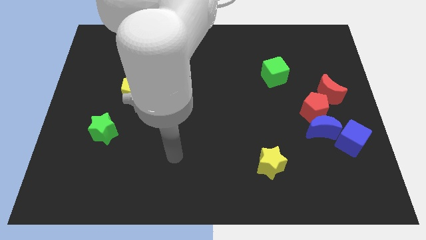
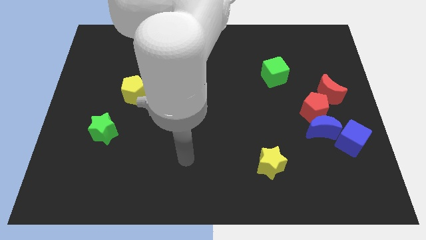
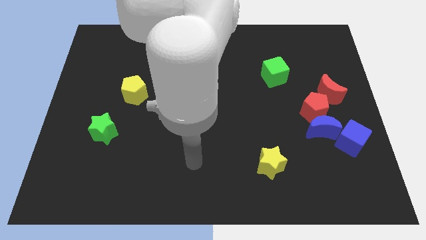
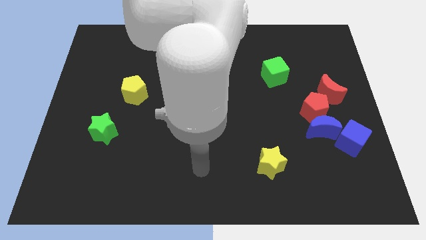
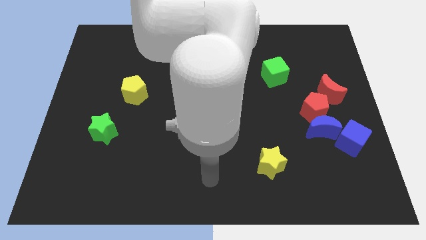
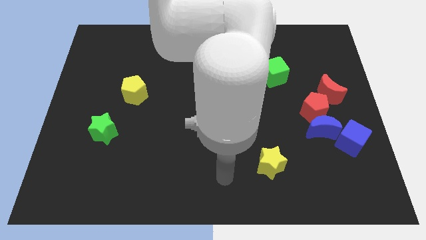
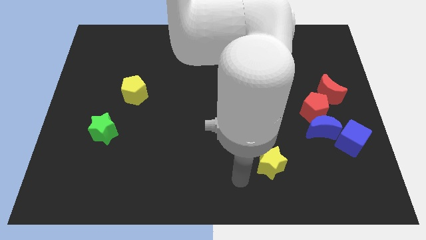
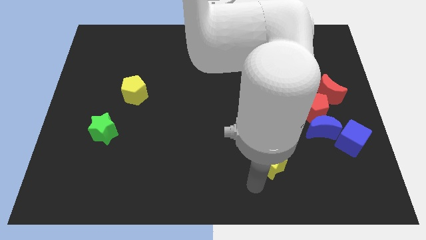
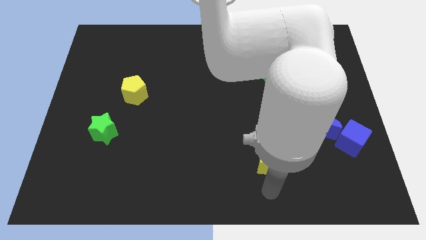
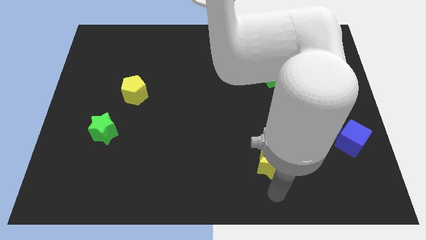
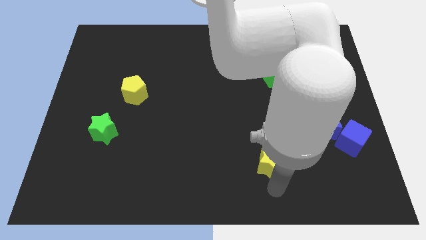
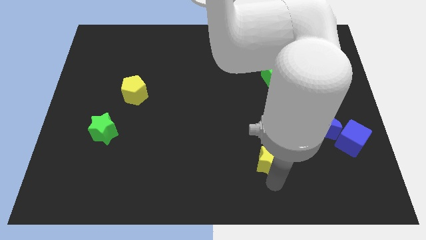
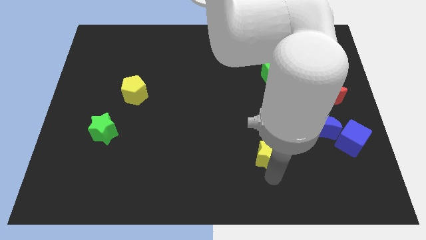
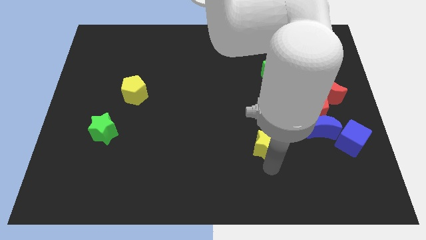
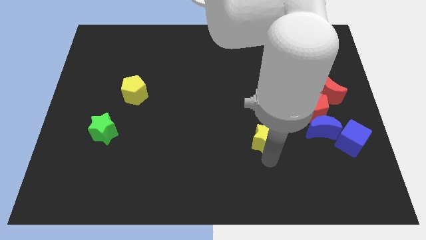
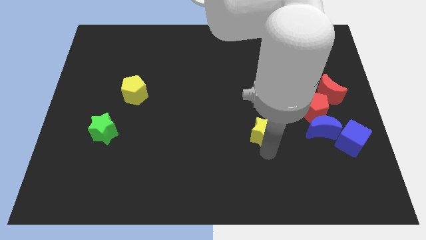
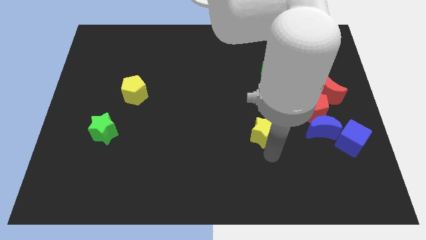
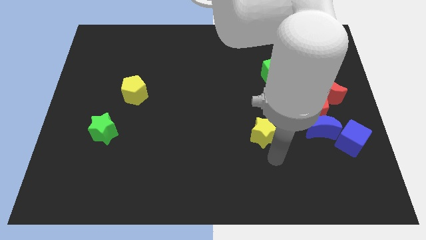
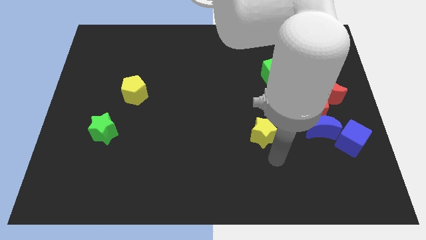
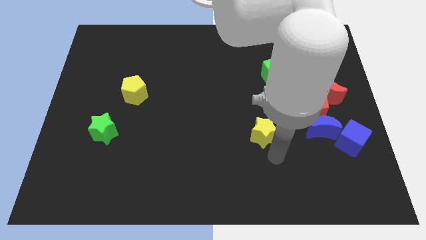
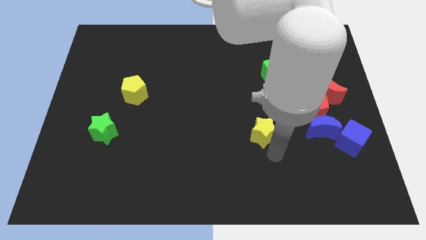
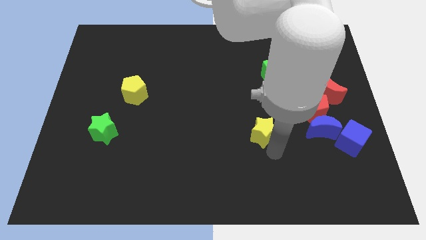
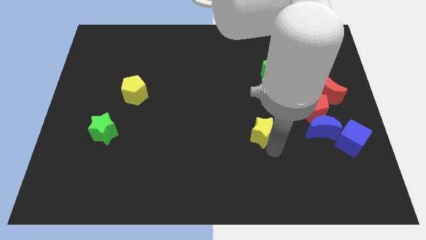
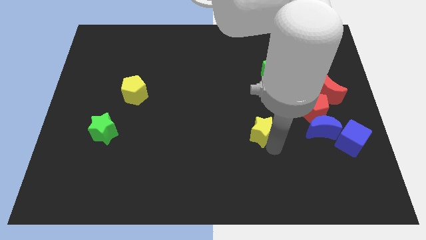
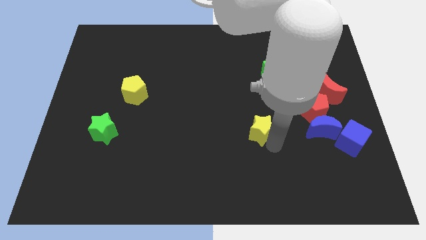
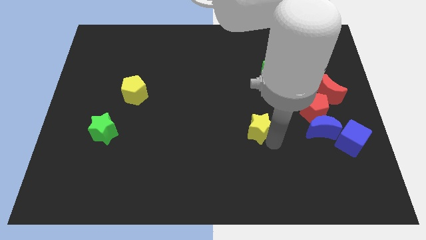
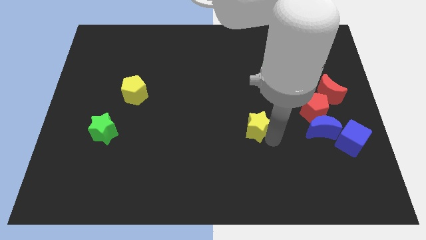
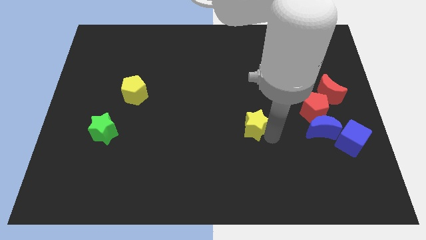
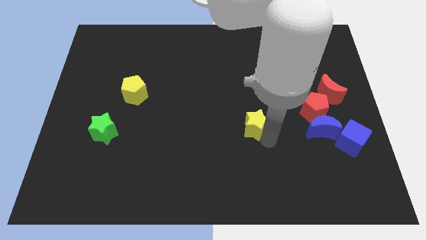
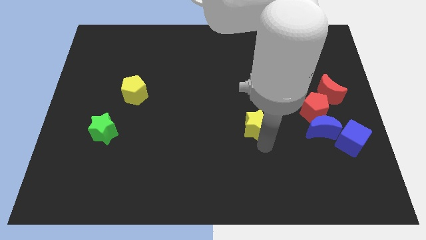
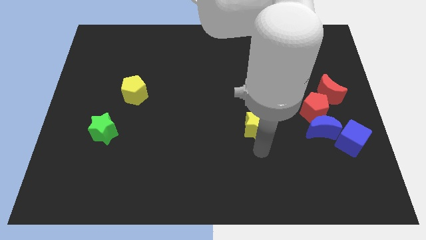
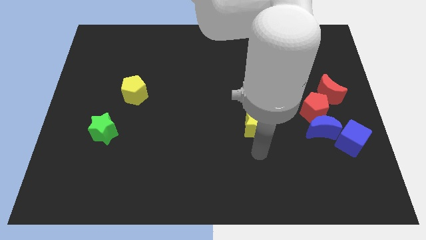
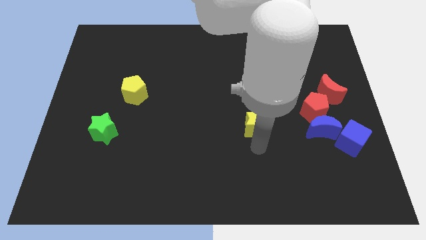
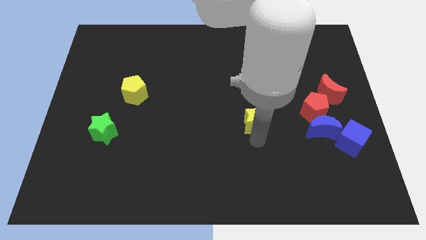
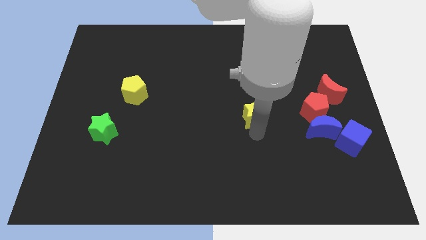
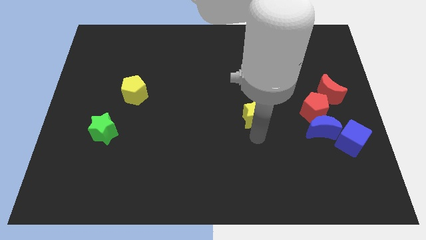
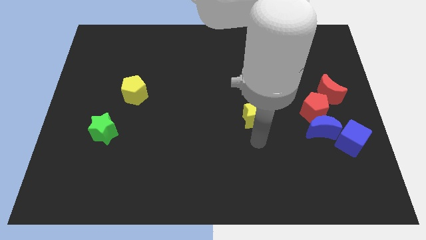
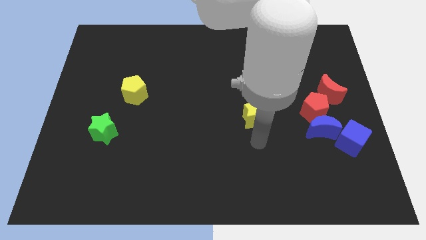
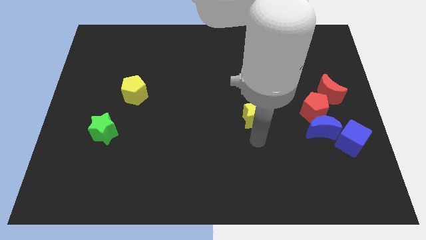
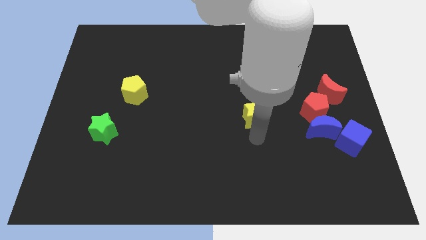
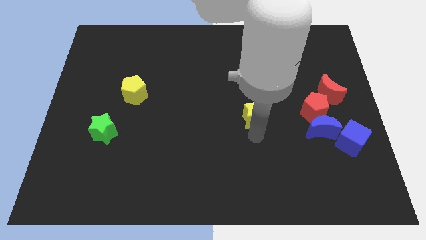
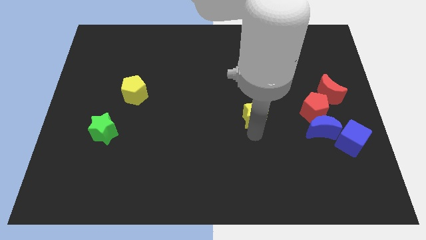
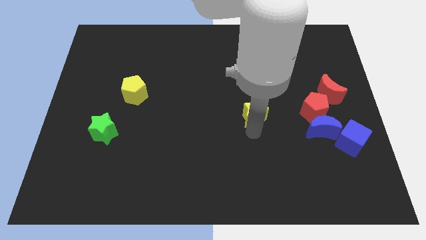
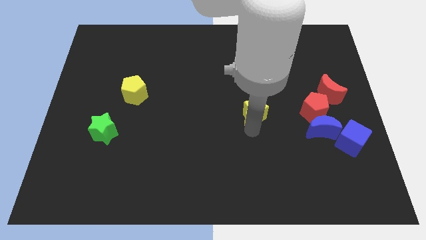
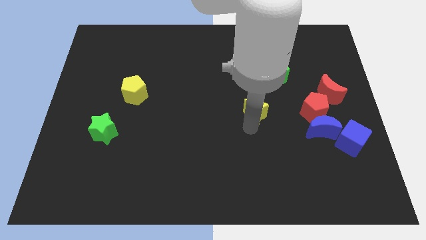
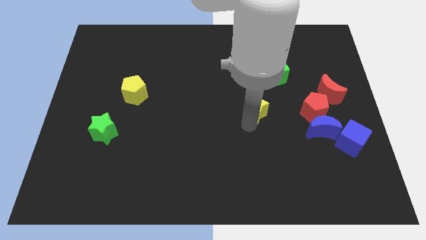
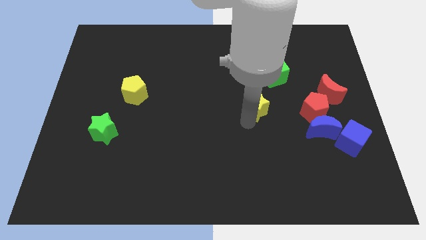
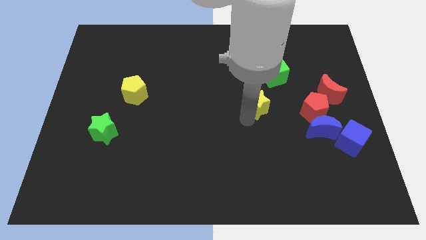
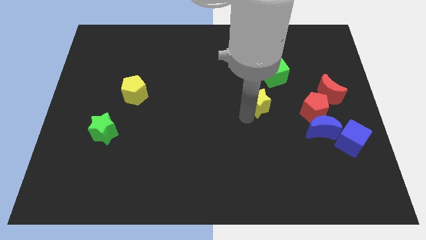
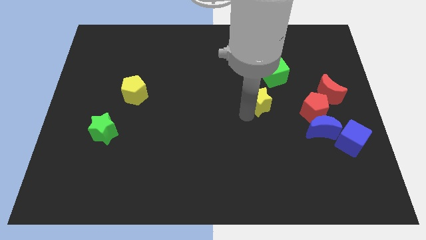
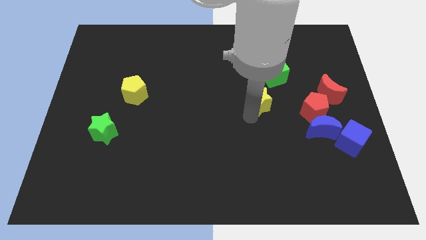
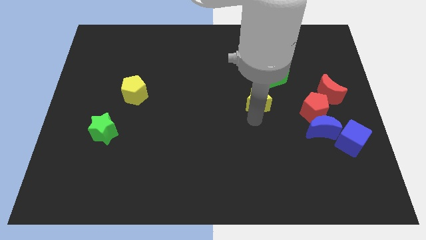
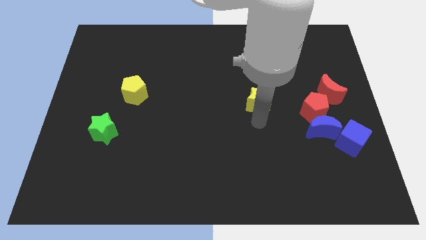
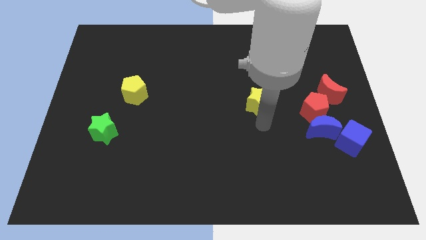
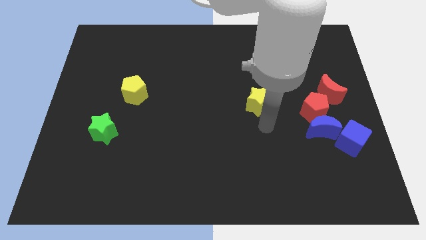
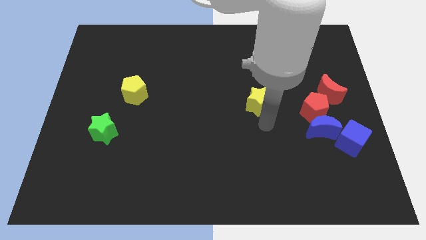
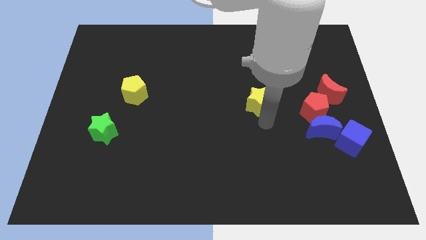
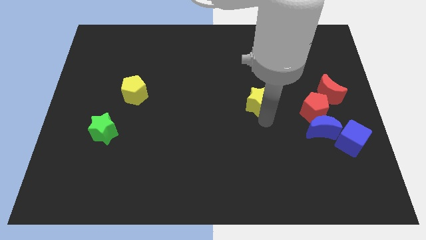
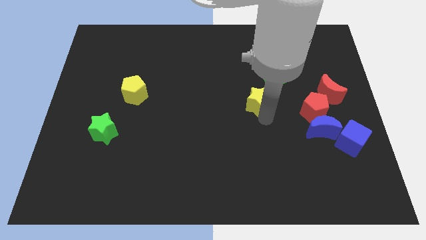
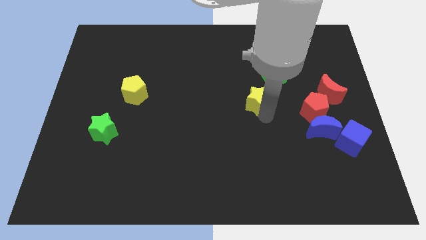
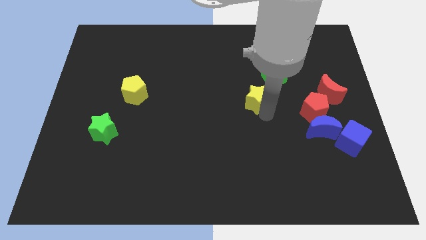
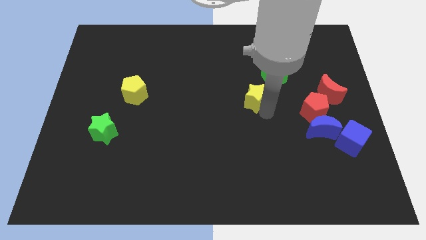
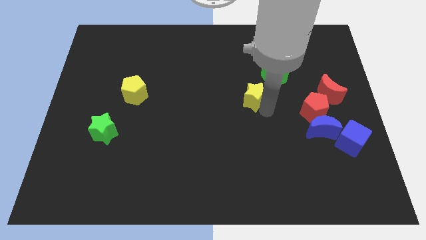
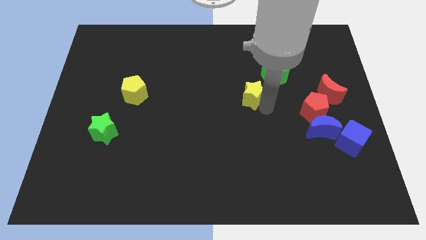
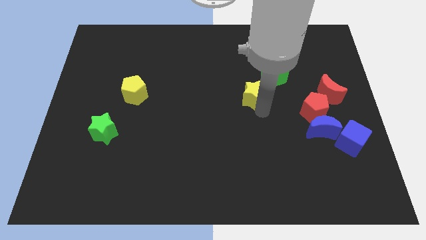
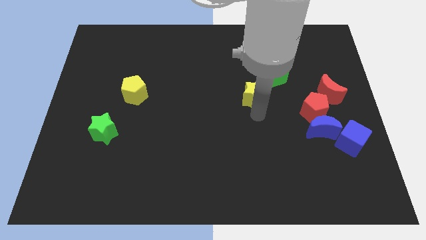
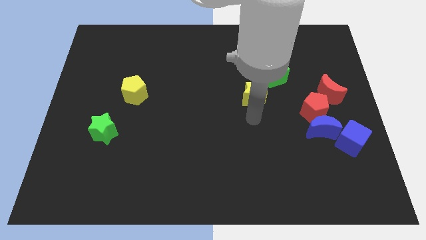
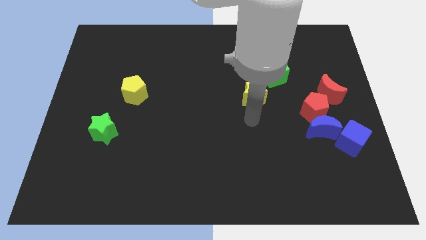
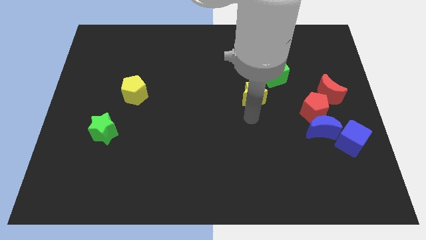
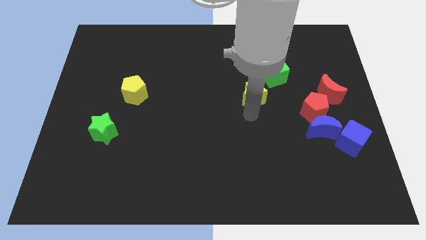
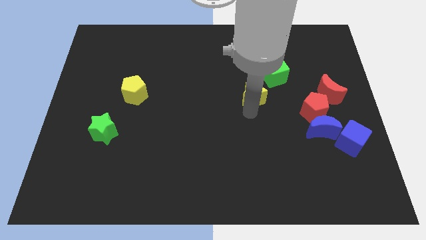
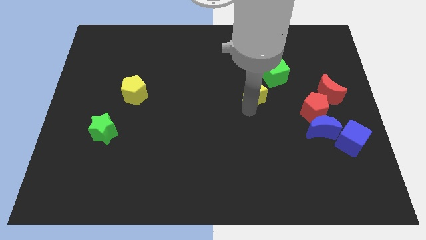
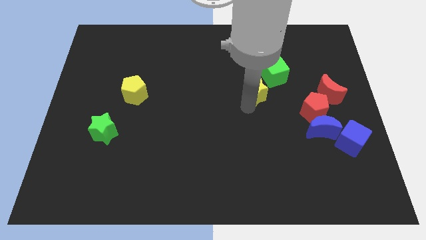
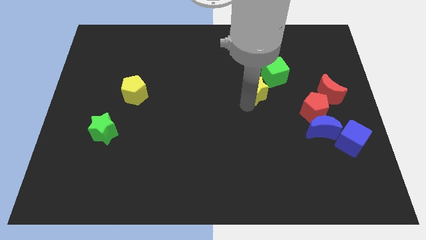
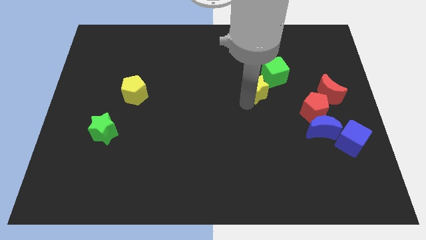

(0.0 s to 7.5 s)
move the yellow star upwards

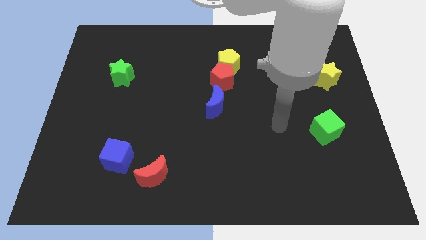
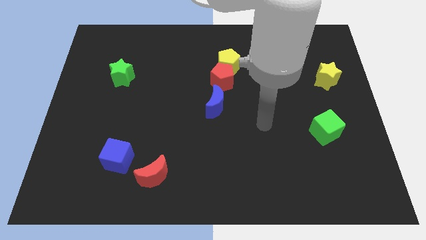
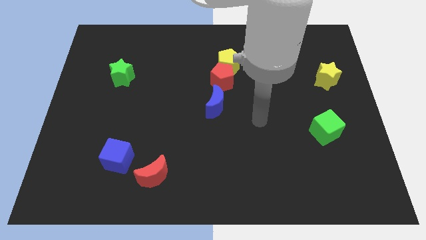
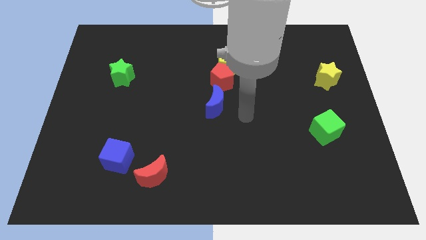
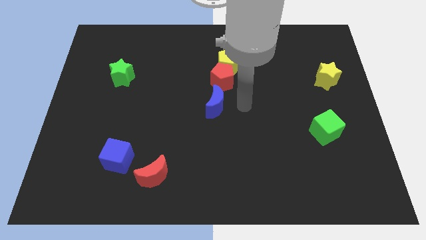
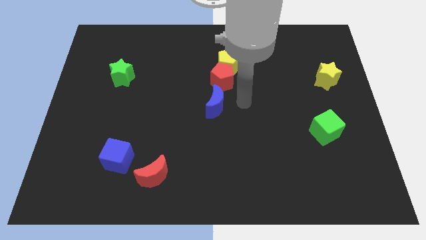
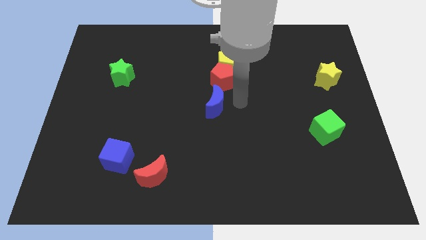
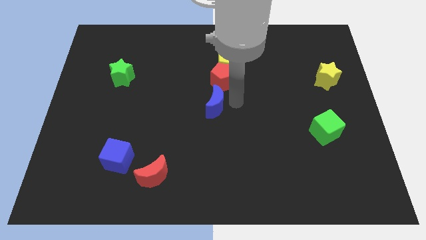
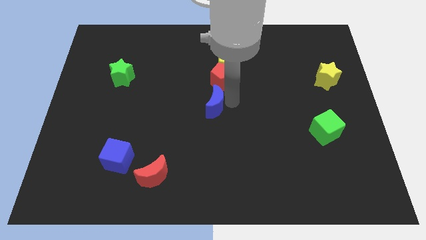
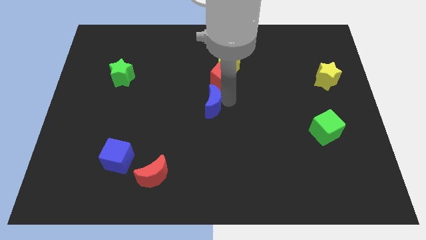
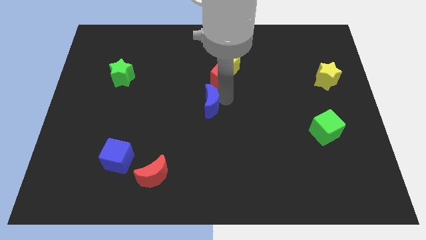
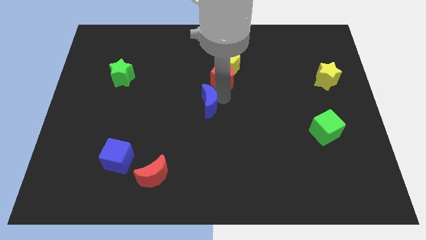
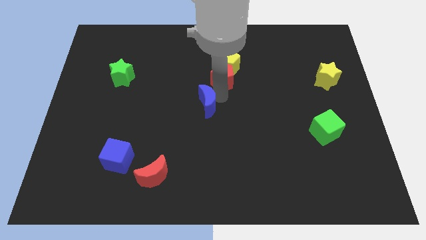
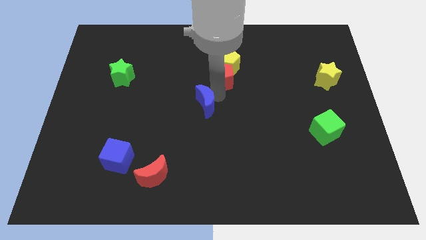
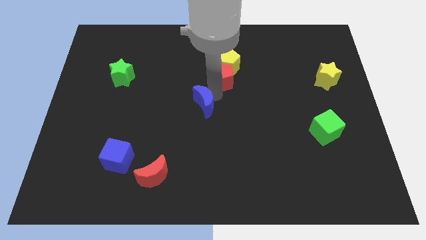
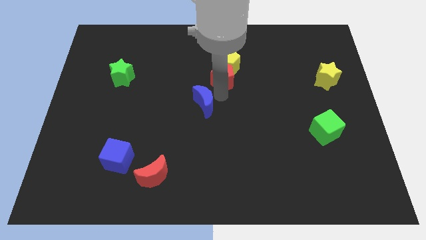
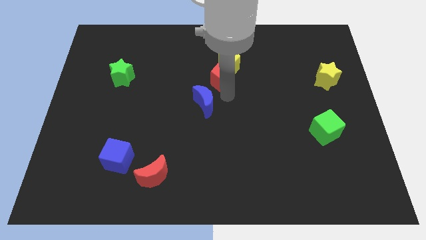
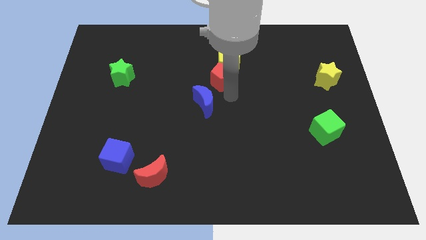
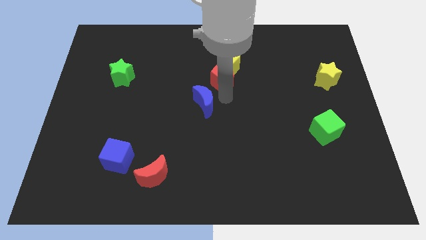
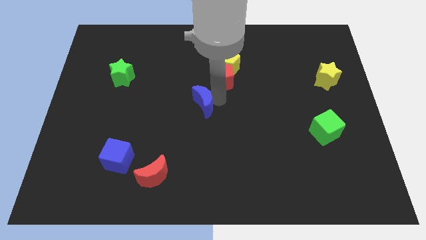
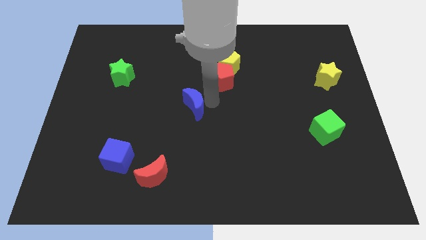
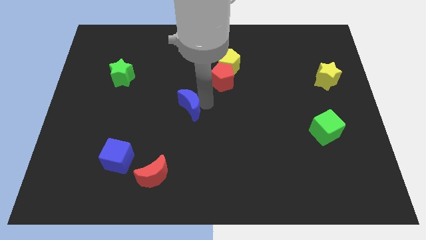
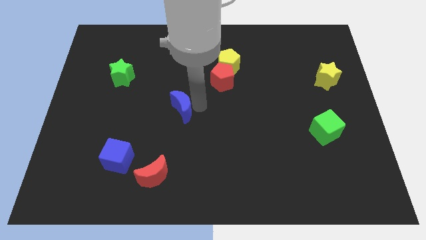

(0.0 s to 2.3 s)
slightly slide the blue moon left
